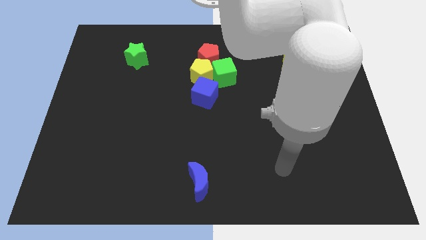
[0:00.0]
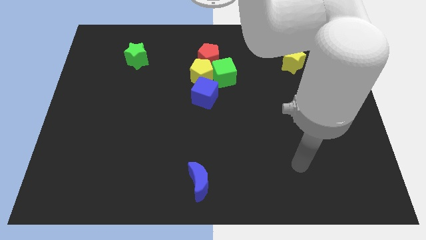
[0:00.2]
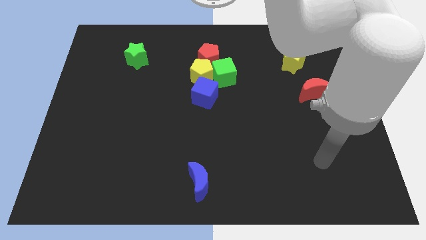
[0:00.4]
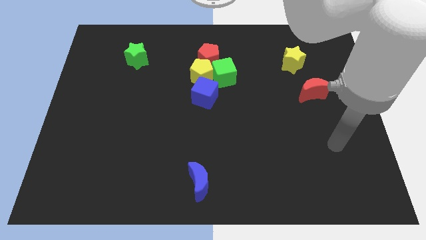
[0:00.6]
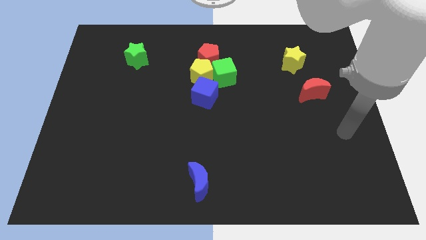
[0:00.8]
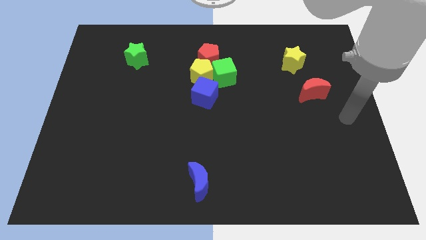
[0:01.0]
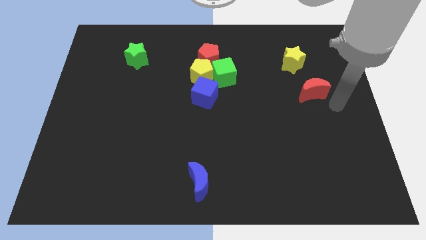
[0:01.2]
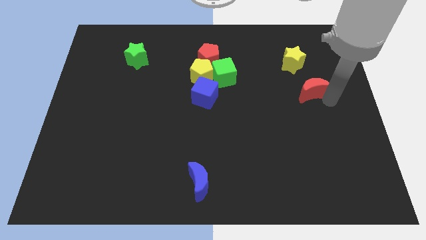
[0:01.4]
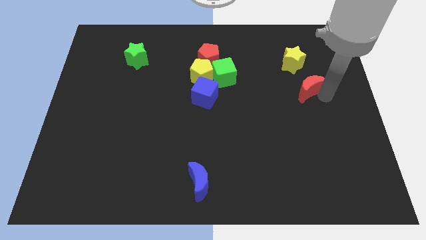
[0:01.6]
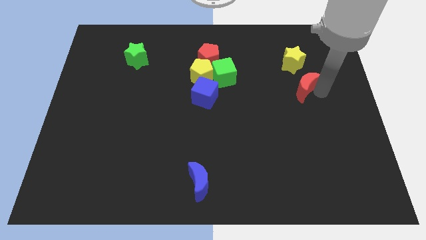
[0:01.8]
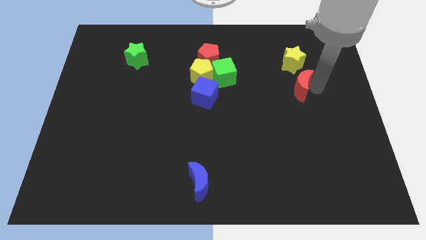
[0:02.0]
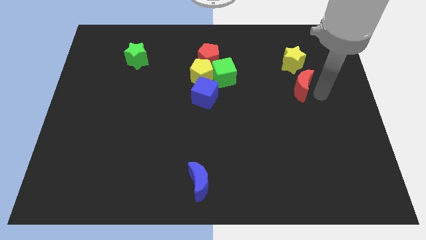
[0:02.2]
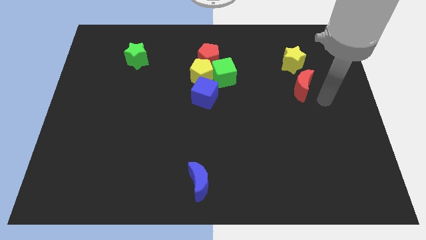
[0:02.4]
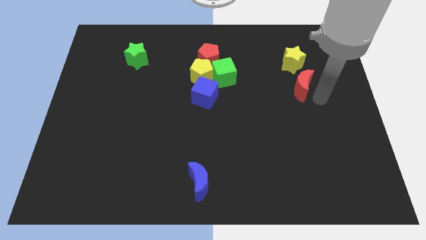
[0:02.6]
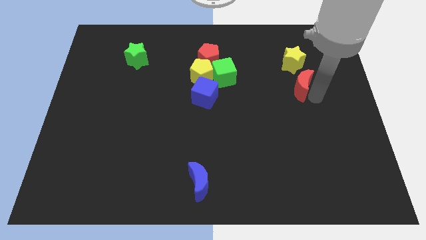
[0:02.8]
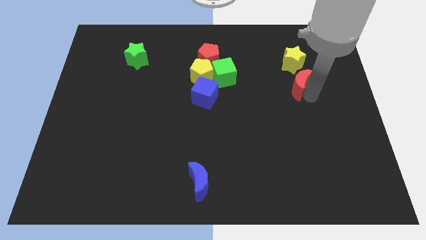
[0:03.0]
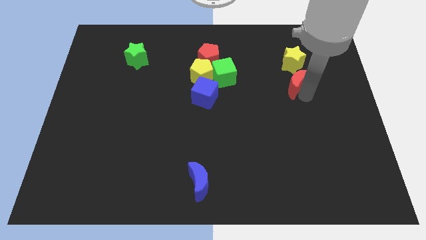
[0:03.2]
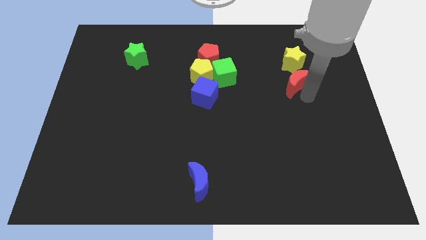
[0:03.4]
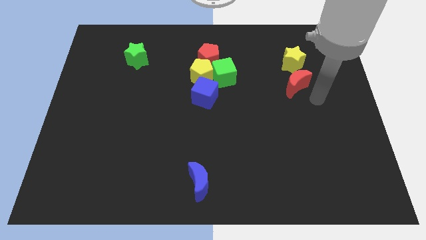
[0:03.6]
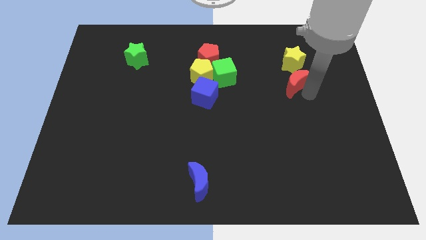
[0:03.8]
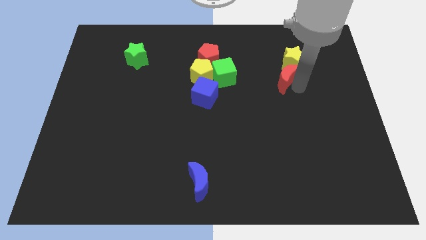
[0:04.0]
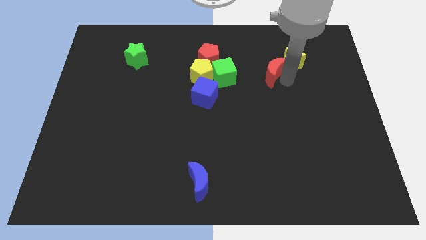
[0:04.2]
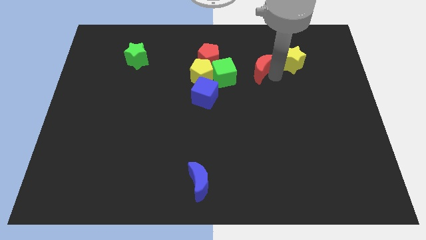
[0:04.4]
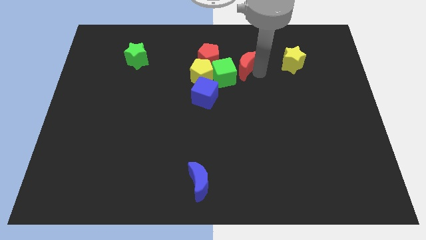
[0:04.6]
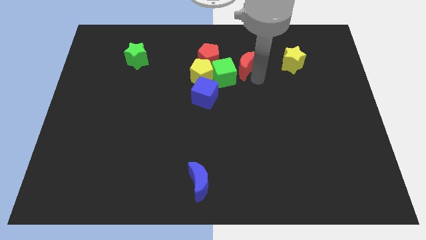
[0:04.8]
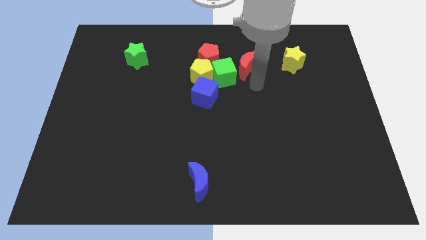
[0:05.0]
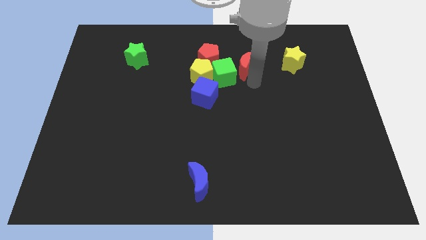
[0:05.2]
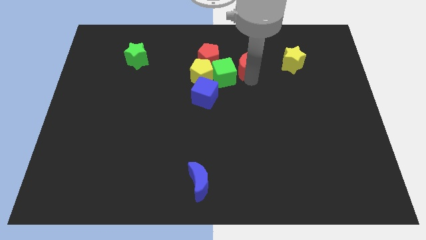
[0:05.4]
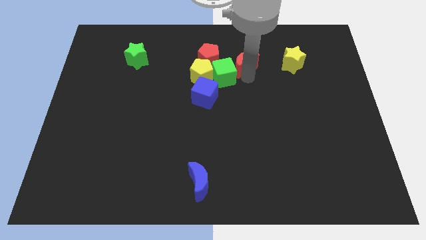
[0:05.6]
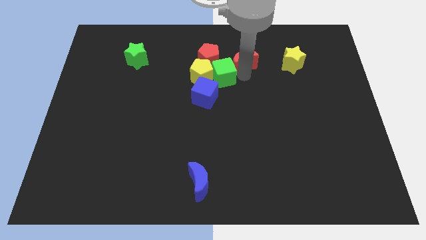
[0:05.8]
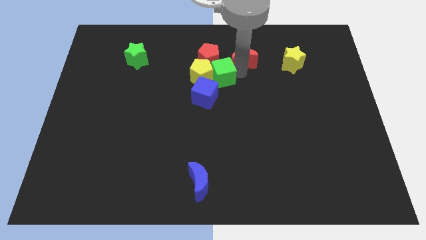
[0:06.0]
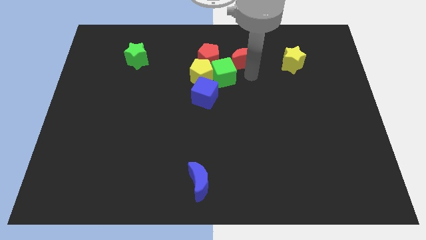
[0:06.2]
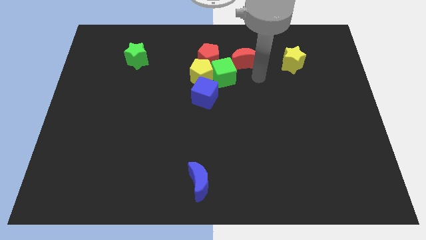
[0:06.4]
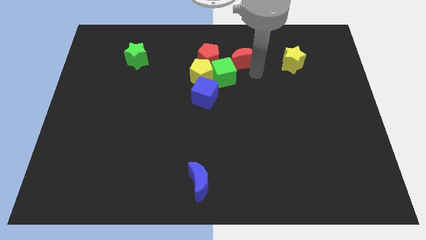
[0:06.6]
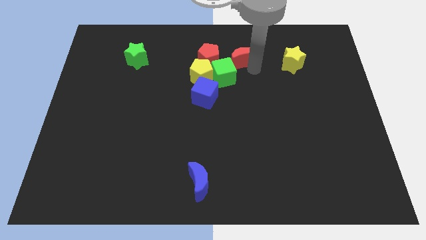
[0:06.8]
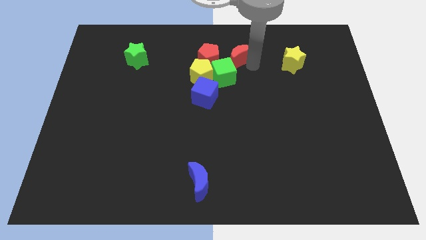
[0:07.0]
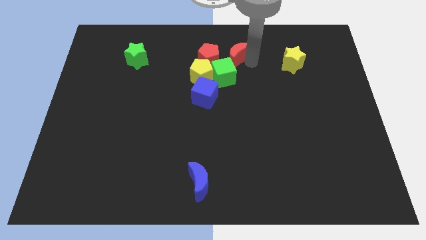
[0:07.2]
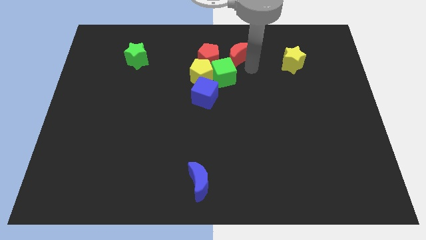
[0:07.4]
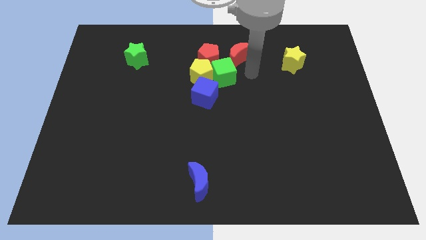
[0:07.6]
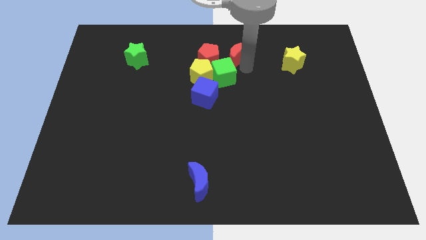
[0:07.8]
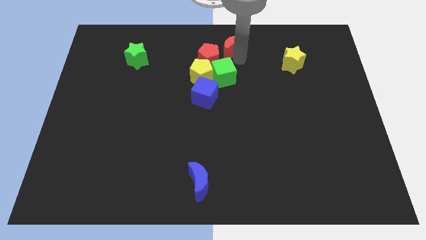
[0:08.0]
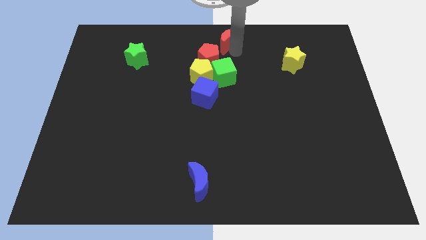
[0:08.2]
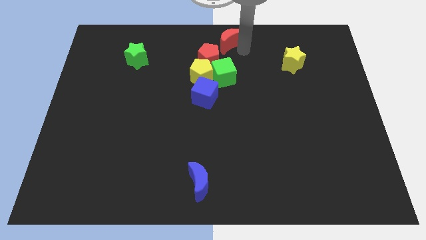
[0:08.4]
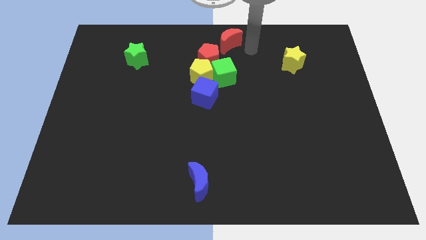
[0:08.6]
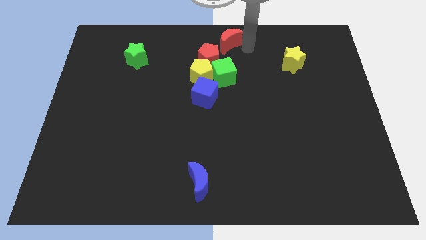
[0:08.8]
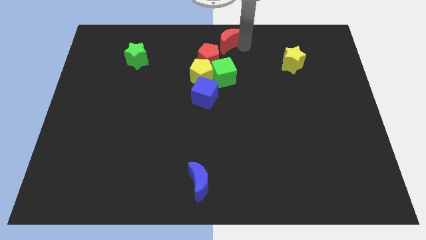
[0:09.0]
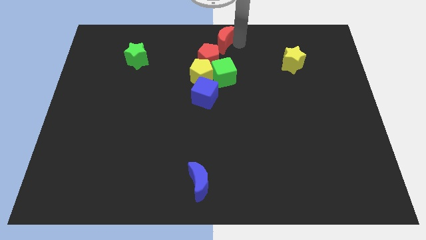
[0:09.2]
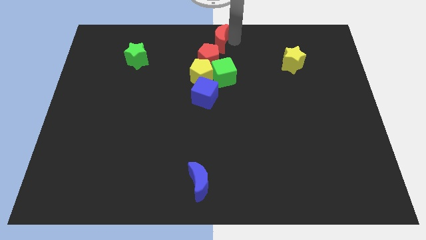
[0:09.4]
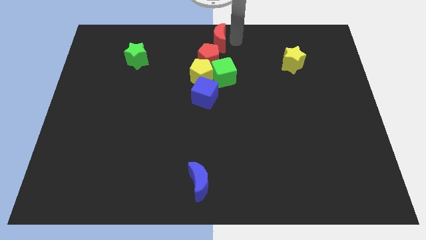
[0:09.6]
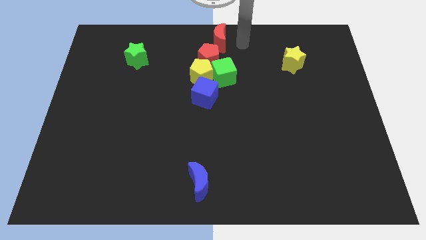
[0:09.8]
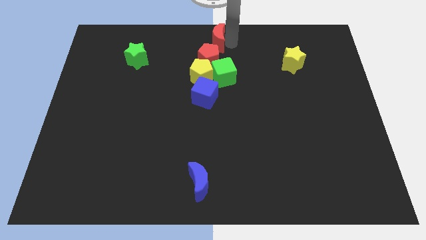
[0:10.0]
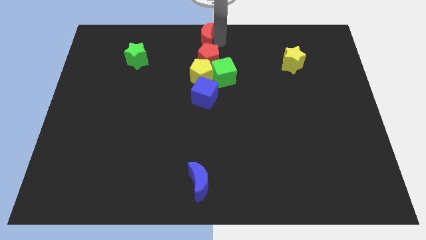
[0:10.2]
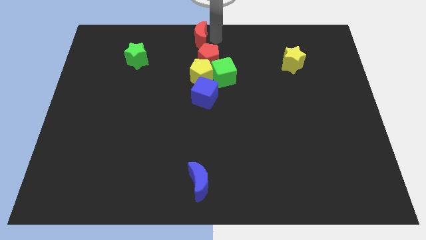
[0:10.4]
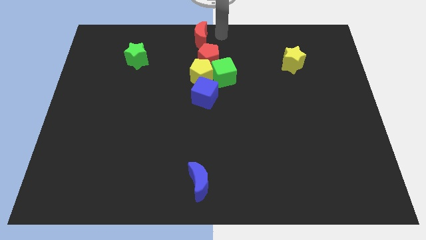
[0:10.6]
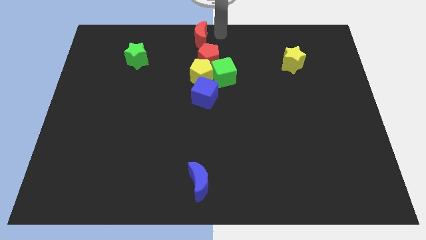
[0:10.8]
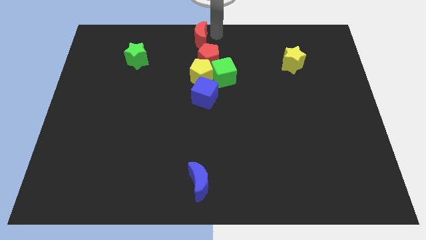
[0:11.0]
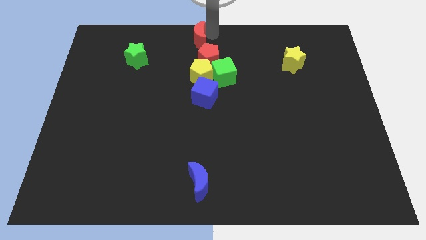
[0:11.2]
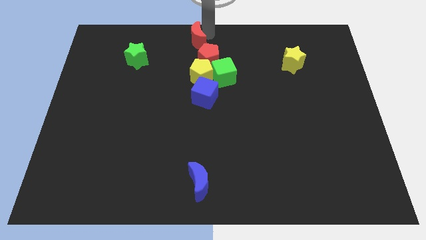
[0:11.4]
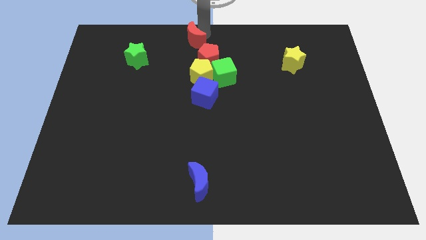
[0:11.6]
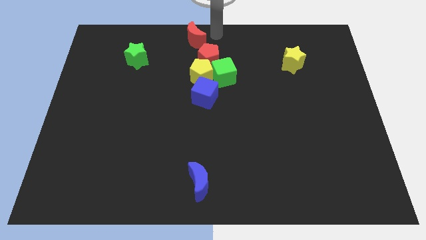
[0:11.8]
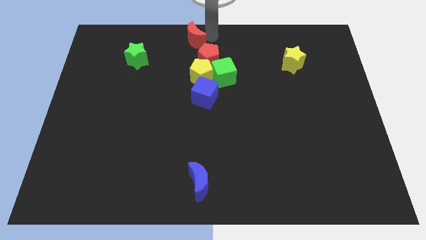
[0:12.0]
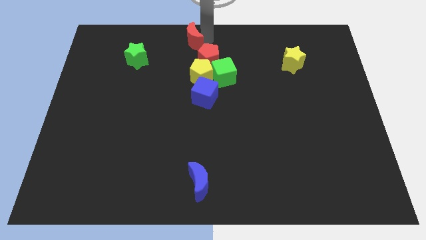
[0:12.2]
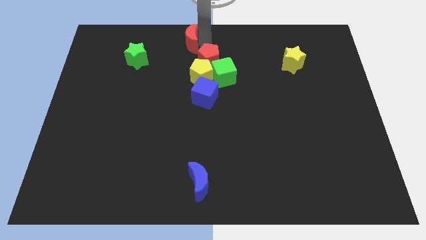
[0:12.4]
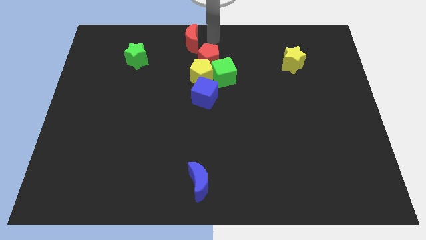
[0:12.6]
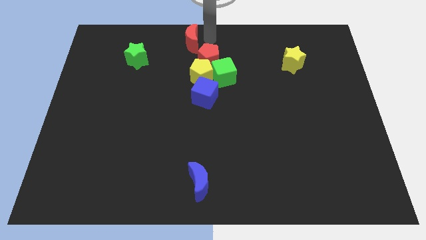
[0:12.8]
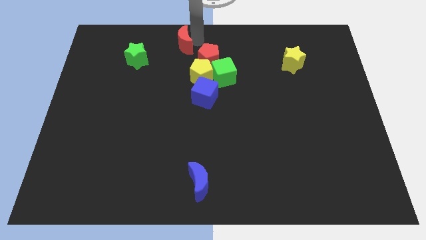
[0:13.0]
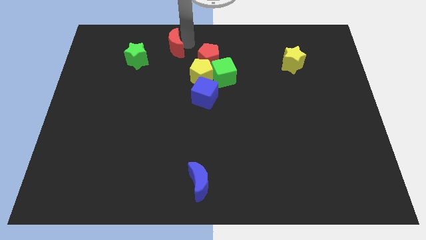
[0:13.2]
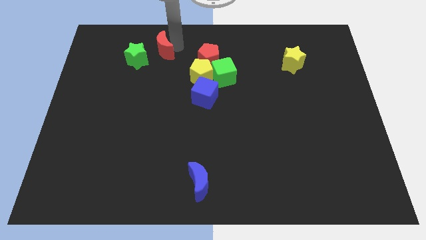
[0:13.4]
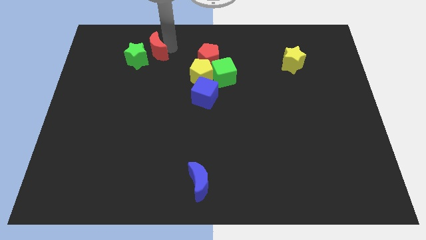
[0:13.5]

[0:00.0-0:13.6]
push the red moon towards the green star

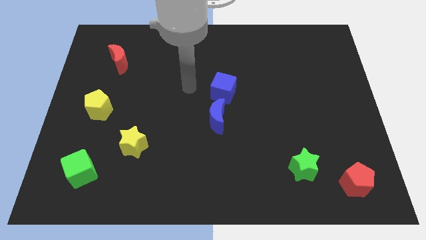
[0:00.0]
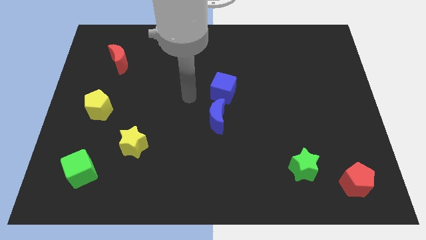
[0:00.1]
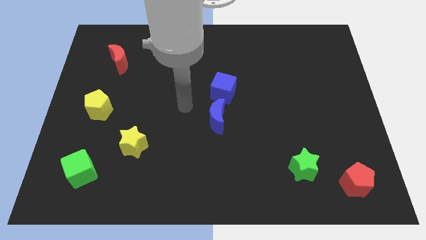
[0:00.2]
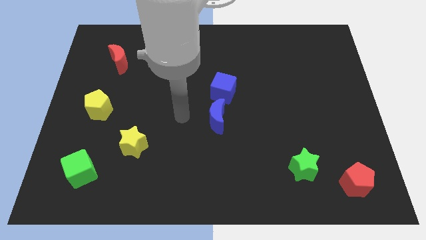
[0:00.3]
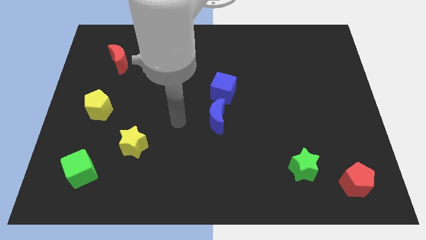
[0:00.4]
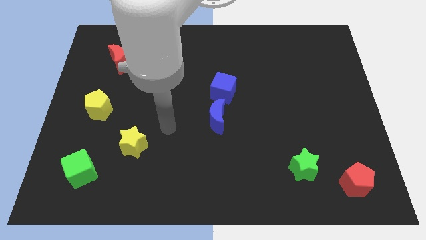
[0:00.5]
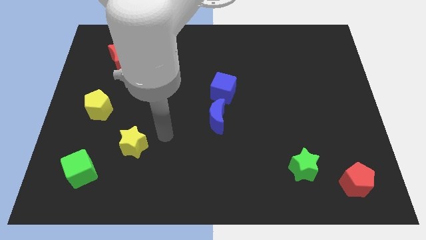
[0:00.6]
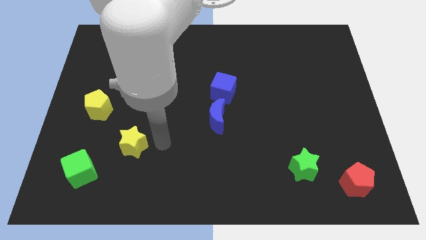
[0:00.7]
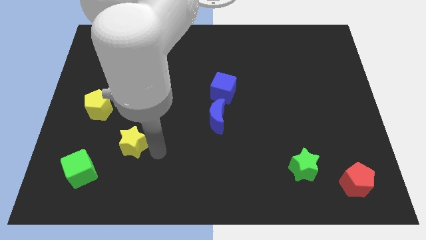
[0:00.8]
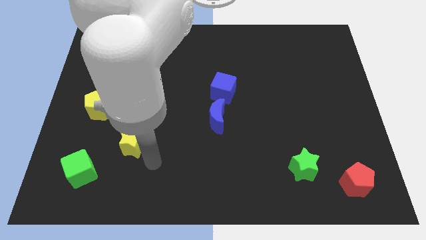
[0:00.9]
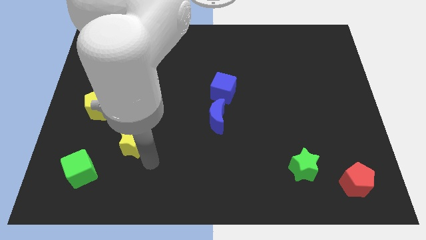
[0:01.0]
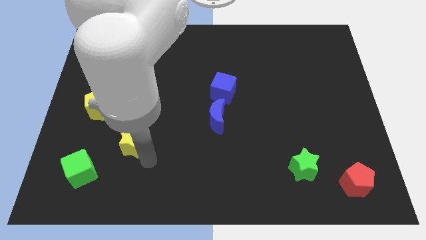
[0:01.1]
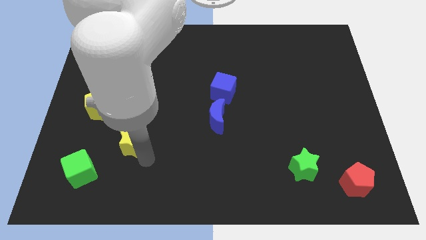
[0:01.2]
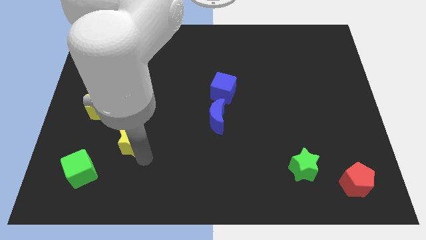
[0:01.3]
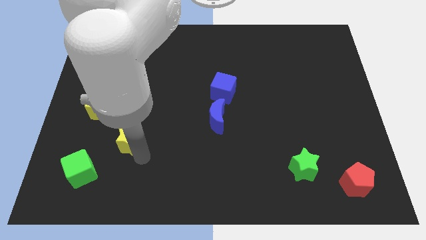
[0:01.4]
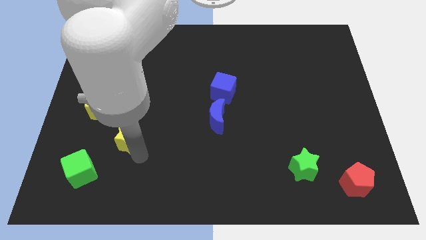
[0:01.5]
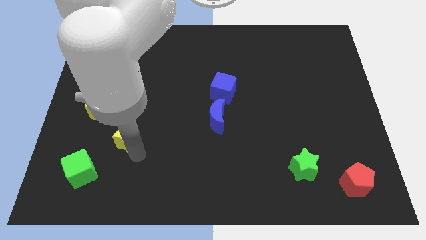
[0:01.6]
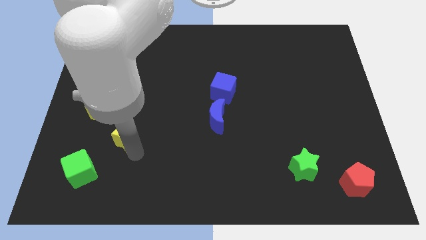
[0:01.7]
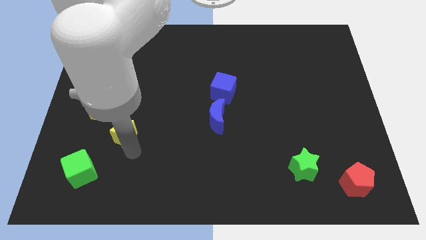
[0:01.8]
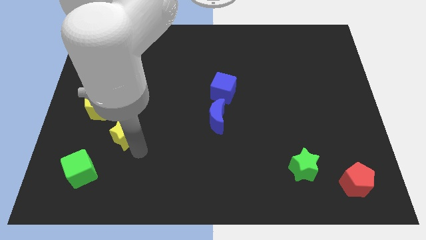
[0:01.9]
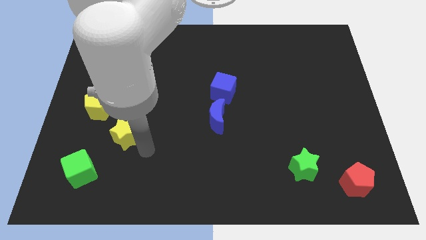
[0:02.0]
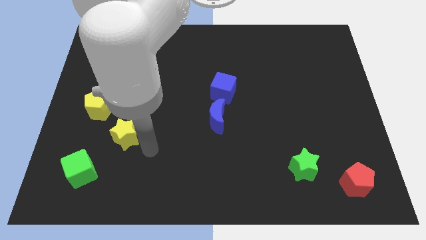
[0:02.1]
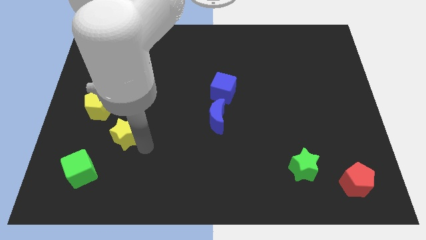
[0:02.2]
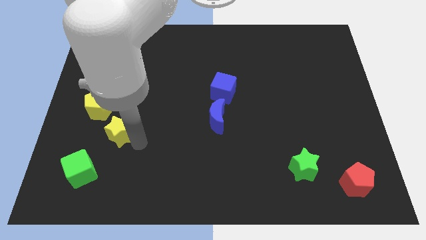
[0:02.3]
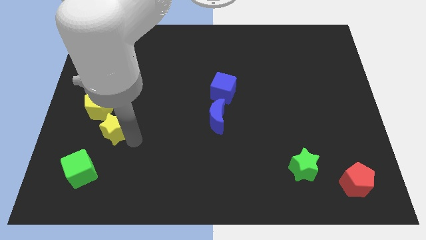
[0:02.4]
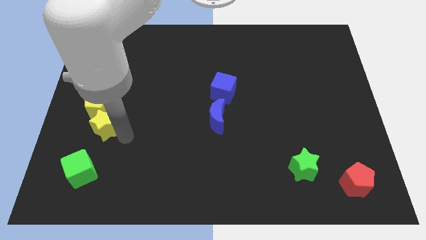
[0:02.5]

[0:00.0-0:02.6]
move the yellow star close to the yellow pentagon
